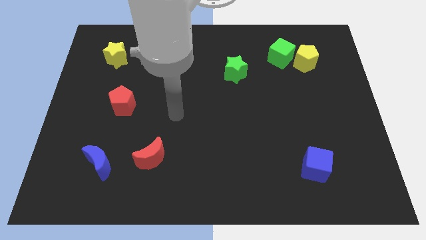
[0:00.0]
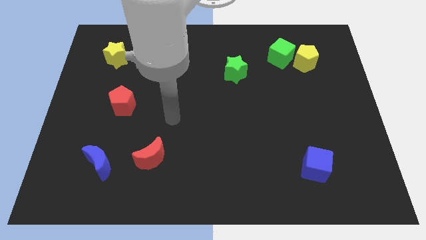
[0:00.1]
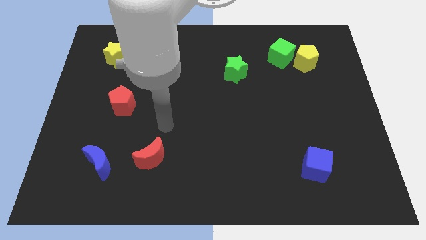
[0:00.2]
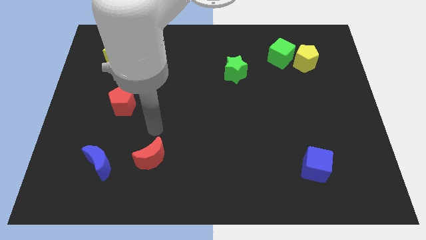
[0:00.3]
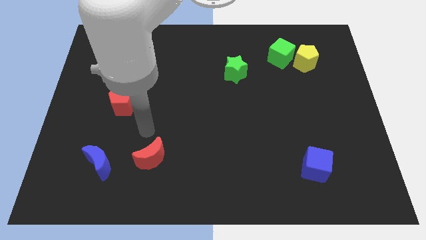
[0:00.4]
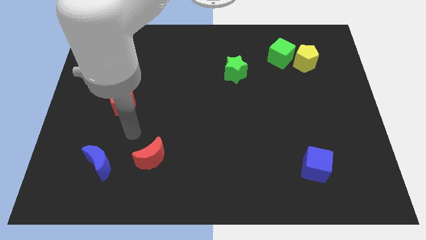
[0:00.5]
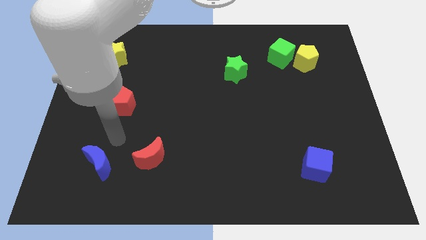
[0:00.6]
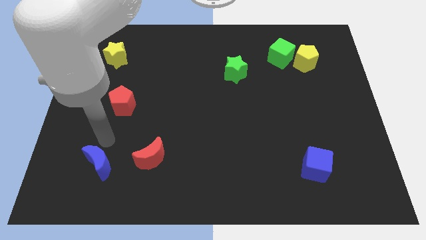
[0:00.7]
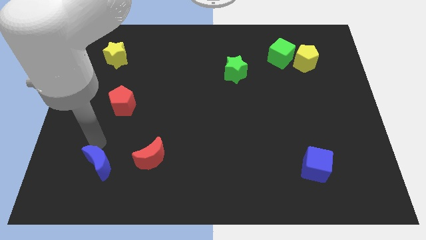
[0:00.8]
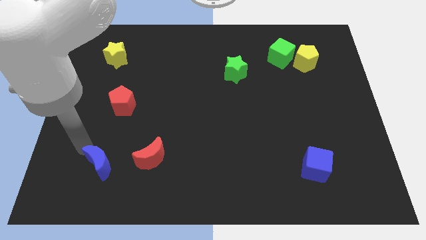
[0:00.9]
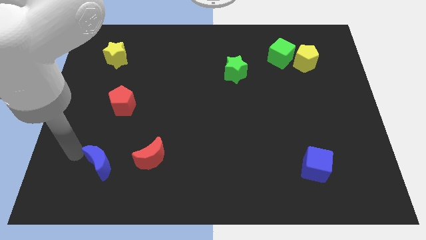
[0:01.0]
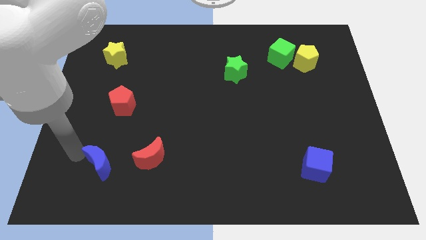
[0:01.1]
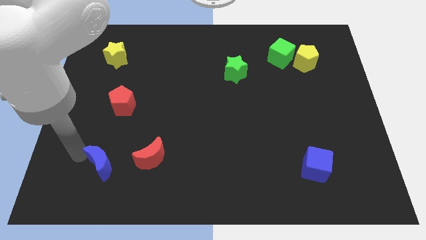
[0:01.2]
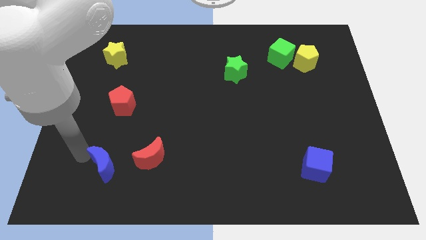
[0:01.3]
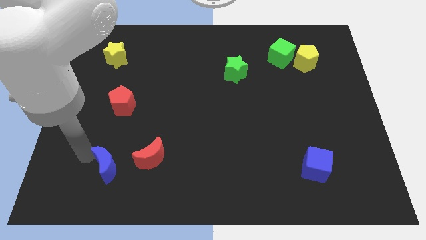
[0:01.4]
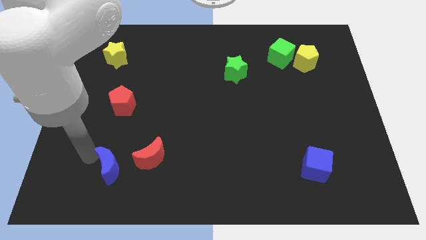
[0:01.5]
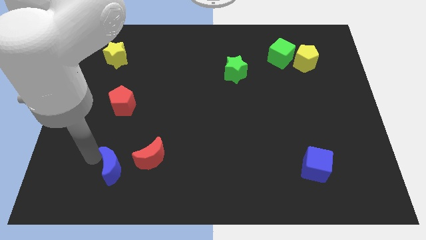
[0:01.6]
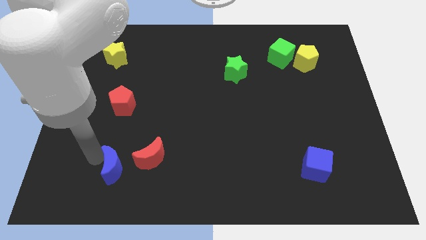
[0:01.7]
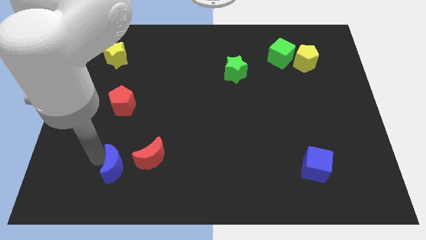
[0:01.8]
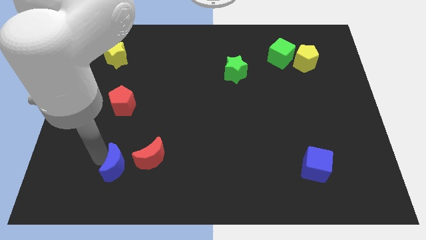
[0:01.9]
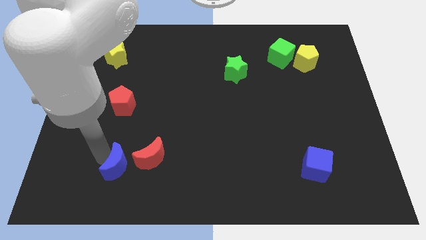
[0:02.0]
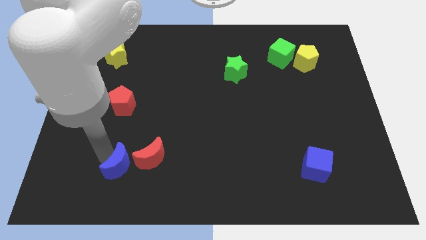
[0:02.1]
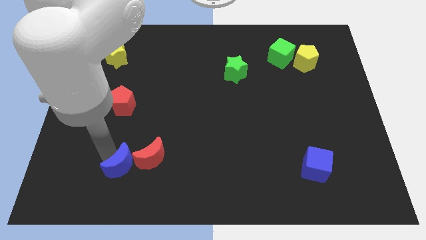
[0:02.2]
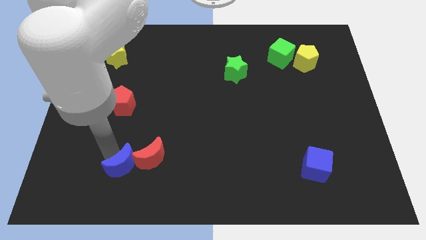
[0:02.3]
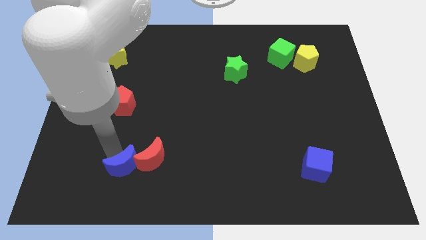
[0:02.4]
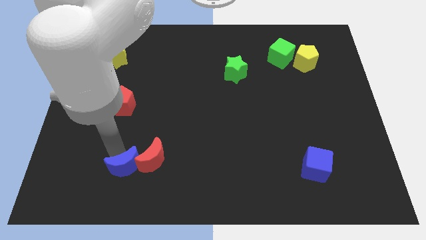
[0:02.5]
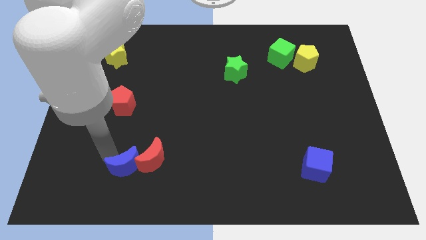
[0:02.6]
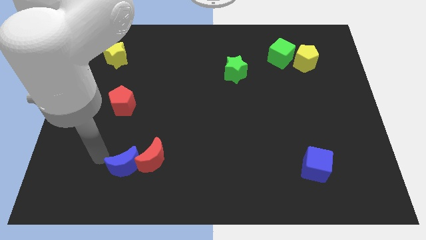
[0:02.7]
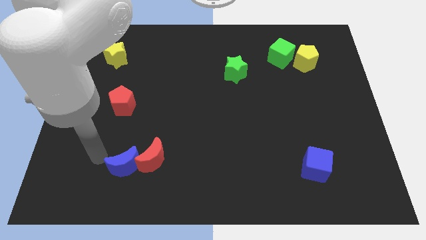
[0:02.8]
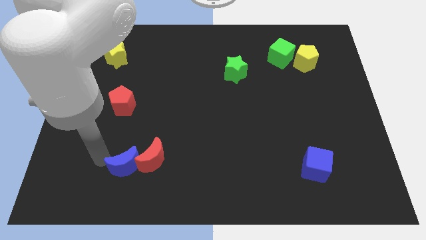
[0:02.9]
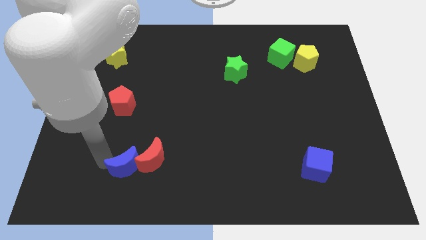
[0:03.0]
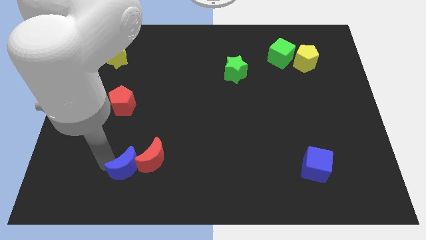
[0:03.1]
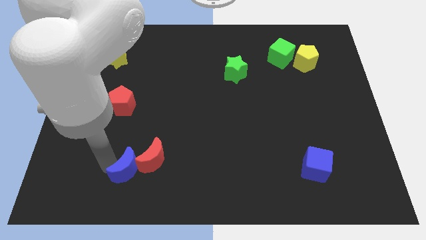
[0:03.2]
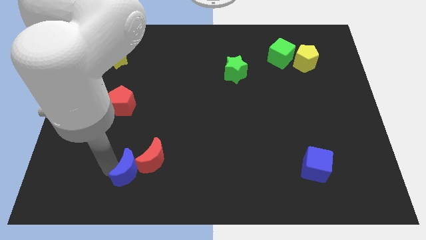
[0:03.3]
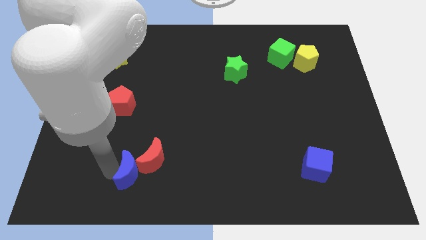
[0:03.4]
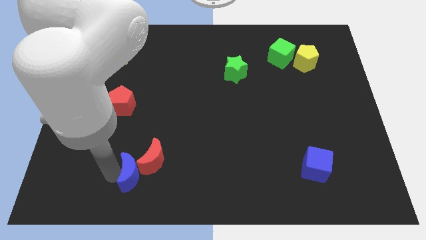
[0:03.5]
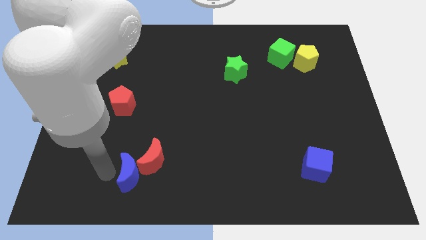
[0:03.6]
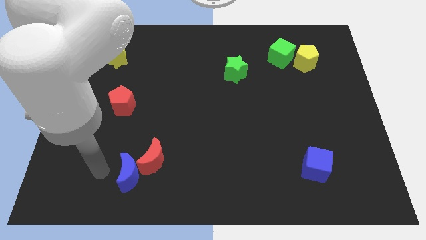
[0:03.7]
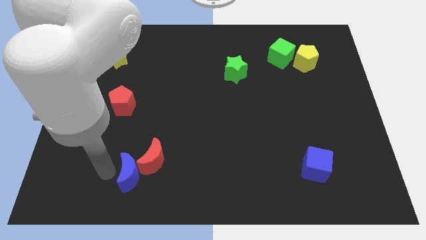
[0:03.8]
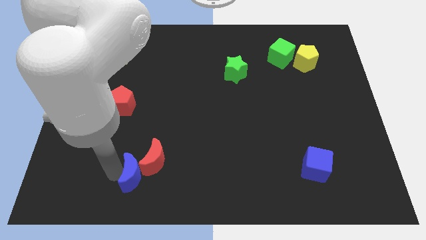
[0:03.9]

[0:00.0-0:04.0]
slightly push the blue moon right

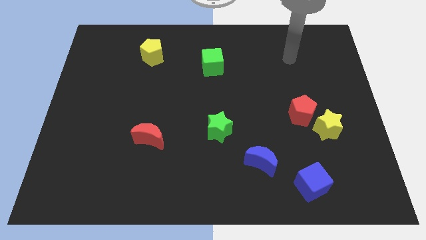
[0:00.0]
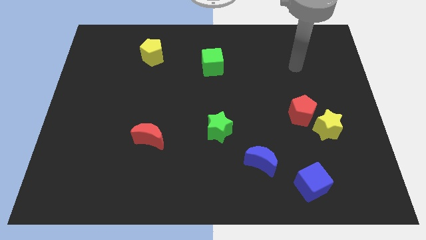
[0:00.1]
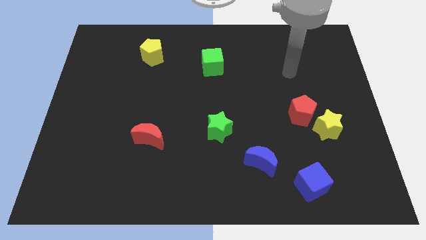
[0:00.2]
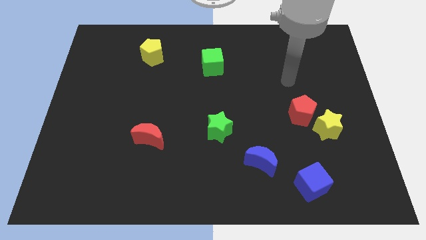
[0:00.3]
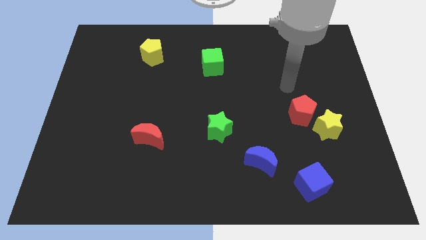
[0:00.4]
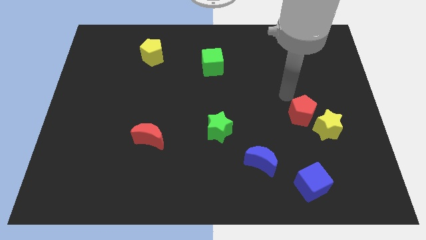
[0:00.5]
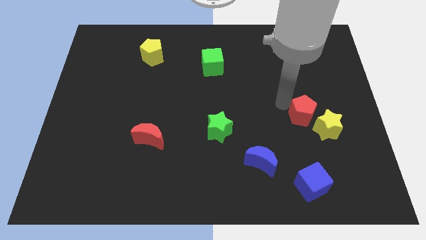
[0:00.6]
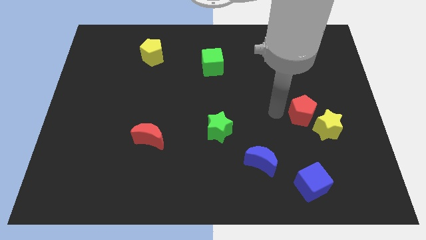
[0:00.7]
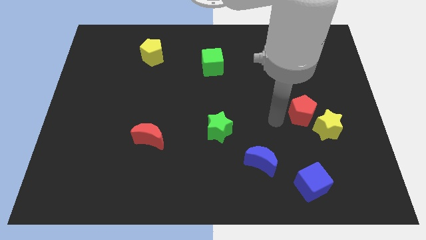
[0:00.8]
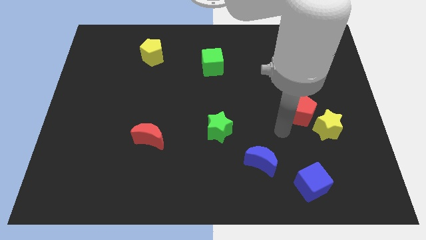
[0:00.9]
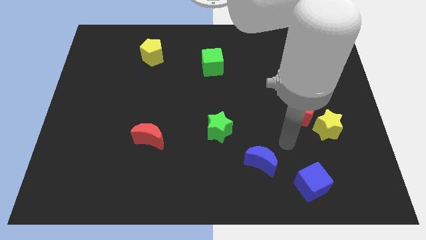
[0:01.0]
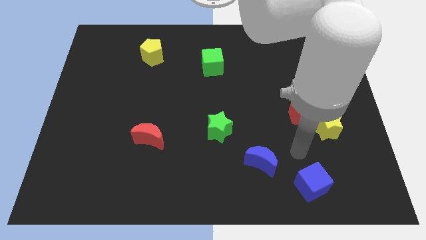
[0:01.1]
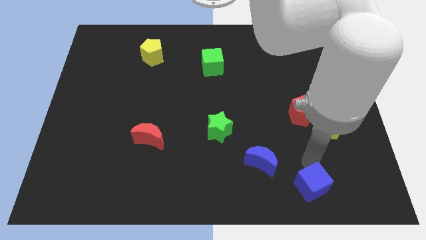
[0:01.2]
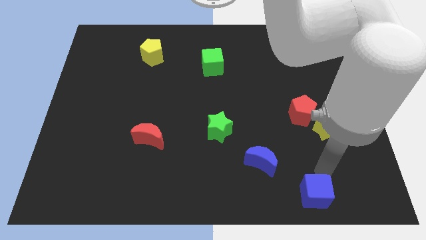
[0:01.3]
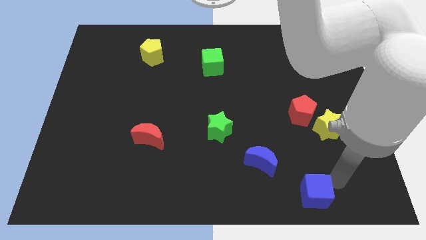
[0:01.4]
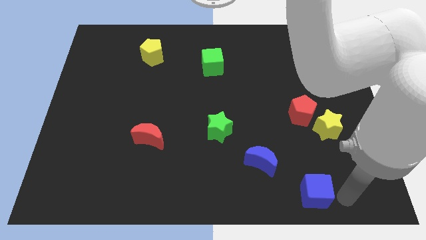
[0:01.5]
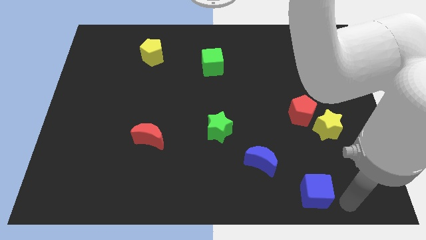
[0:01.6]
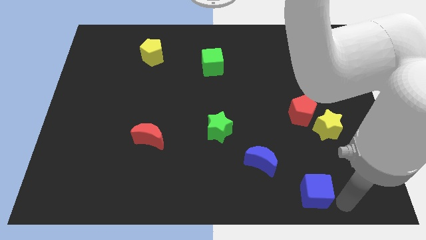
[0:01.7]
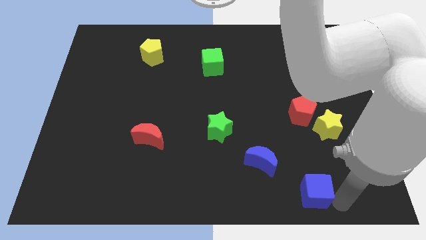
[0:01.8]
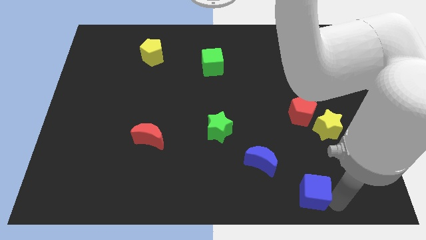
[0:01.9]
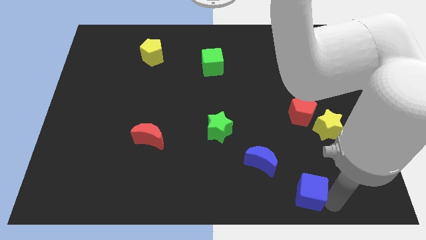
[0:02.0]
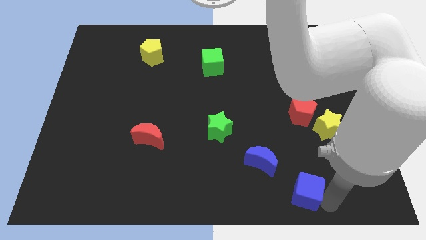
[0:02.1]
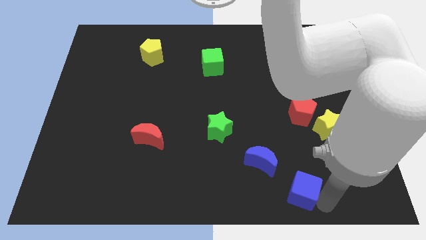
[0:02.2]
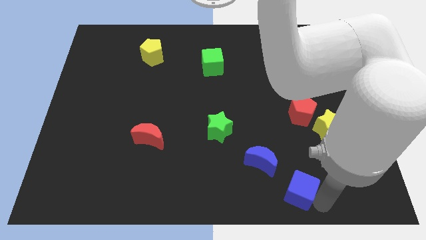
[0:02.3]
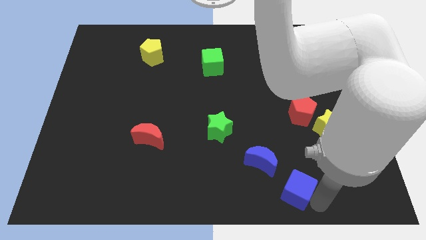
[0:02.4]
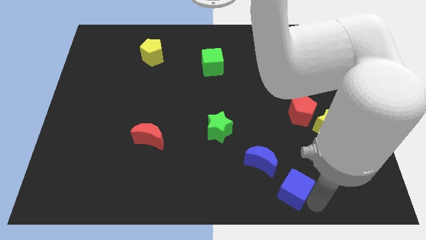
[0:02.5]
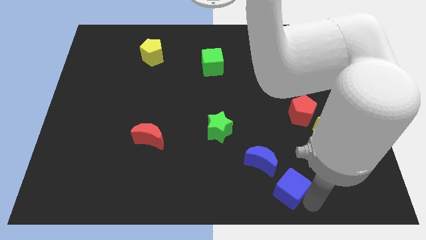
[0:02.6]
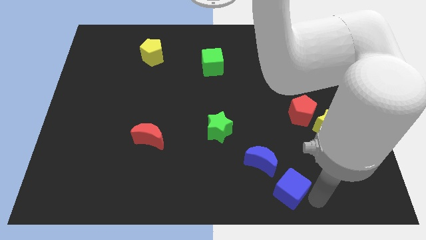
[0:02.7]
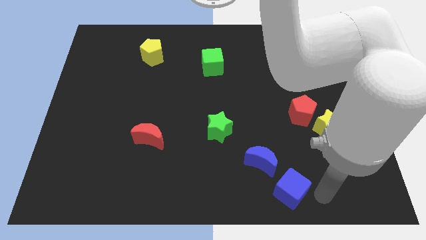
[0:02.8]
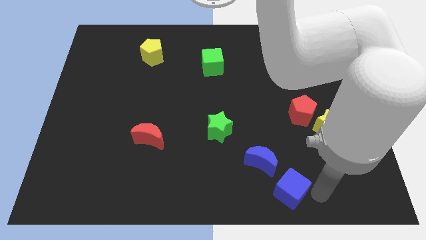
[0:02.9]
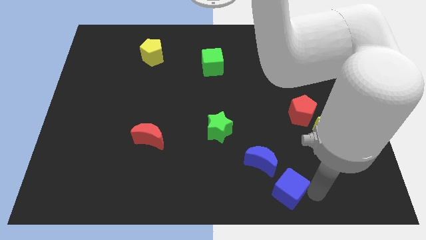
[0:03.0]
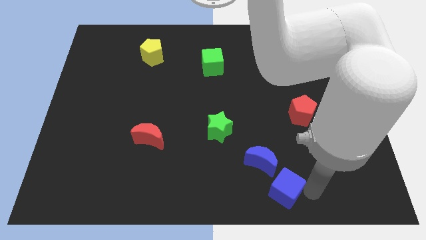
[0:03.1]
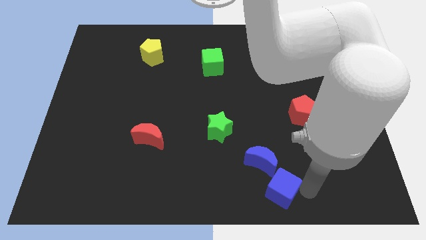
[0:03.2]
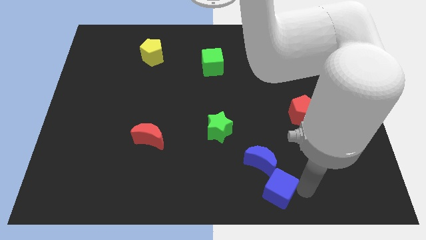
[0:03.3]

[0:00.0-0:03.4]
slide the blue cube slightly to the left

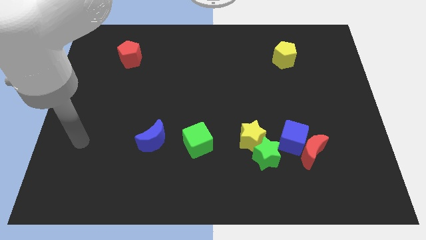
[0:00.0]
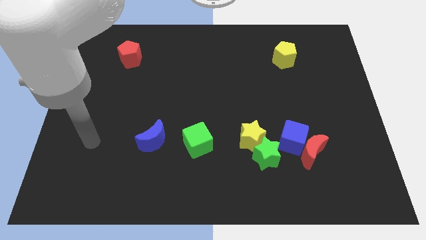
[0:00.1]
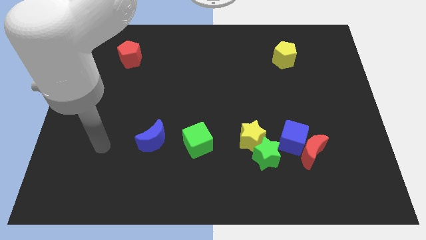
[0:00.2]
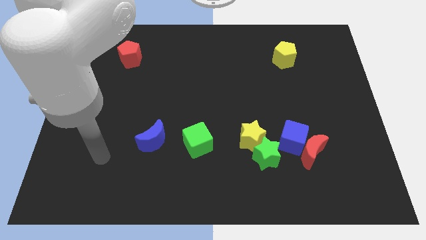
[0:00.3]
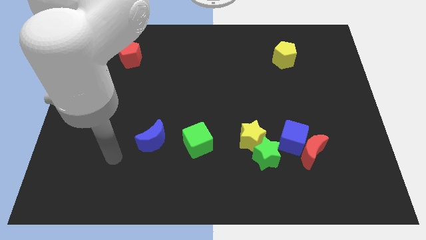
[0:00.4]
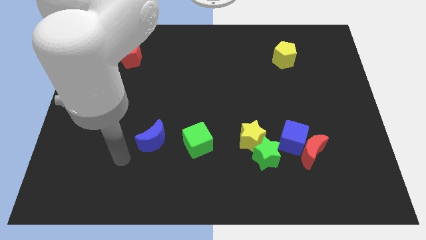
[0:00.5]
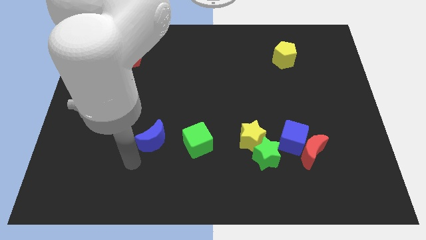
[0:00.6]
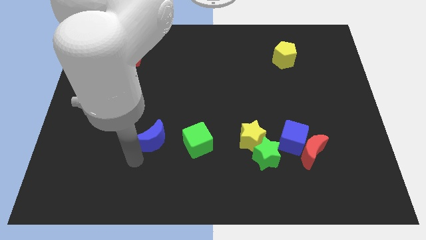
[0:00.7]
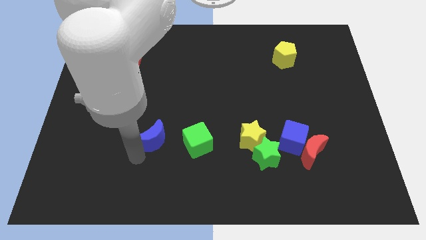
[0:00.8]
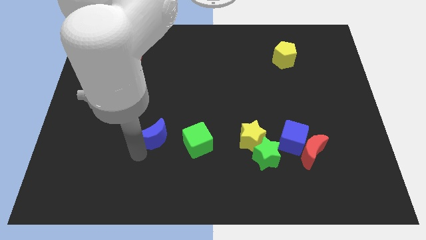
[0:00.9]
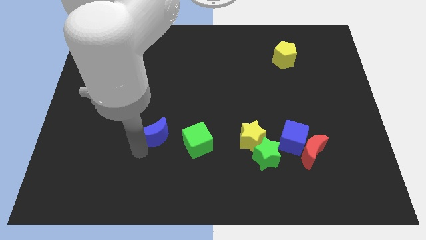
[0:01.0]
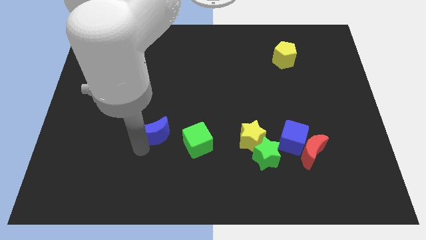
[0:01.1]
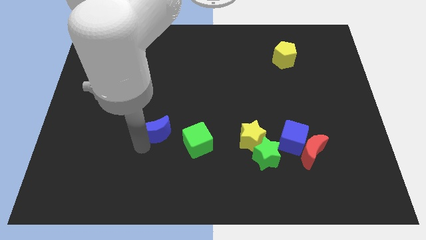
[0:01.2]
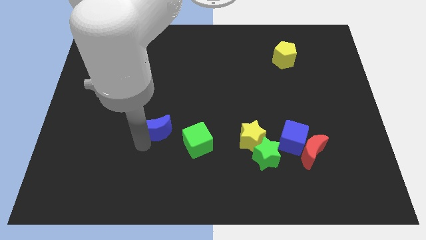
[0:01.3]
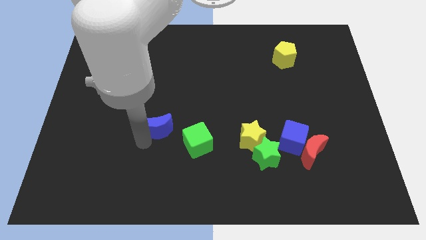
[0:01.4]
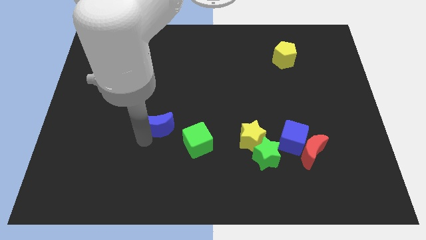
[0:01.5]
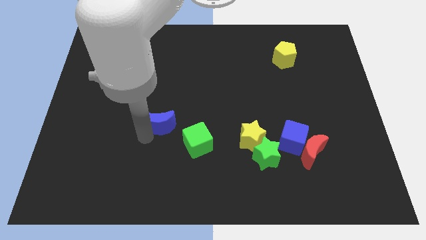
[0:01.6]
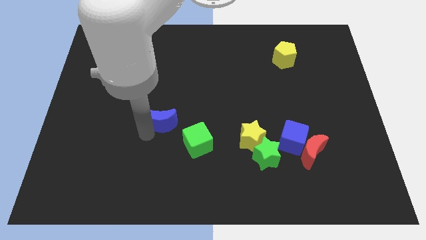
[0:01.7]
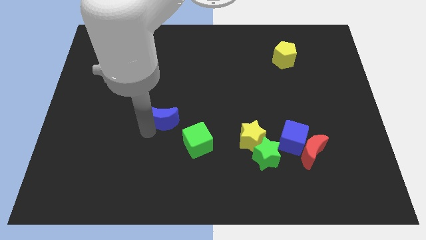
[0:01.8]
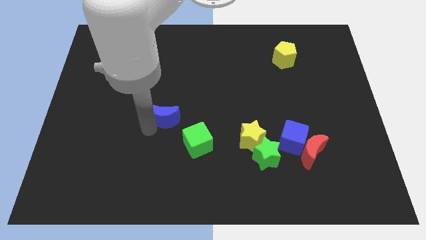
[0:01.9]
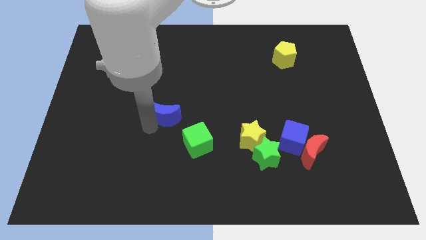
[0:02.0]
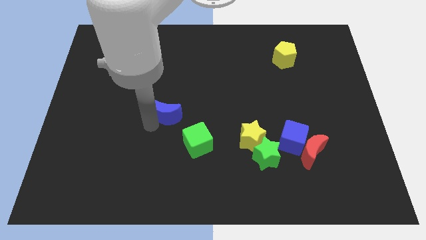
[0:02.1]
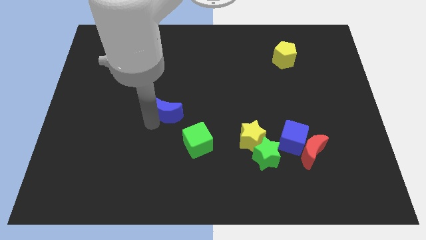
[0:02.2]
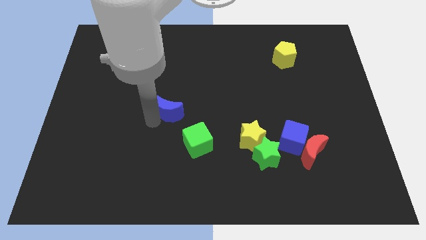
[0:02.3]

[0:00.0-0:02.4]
slide the blue moon up and to the right diagonally slightly
